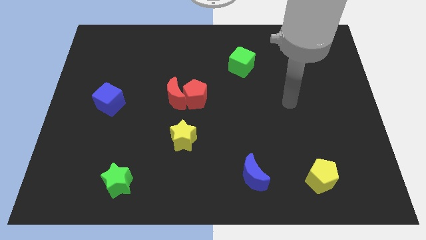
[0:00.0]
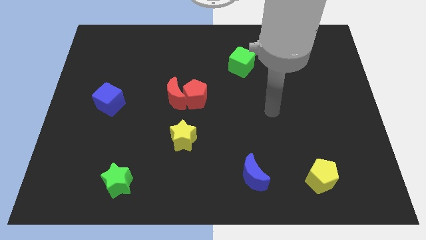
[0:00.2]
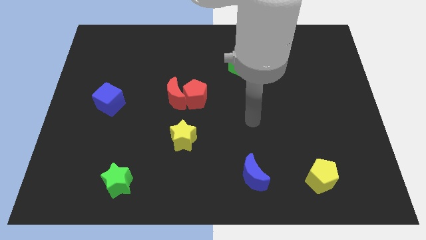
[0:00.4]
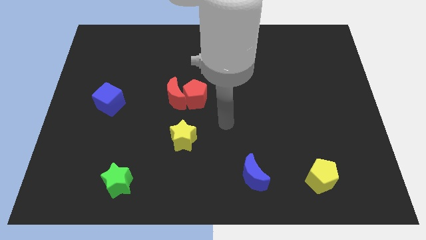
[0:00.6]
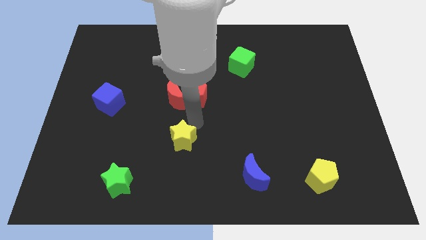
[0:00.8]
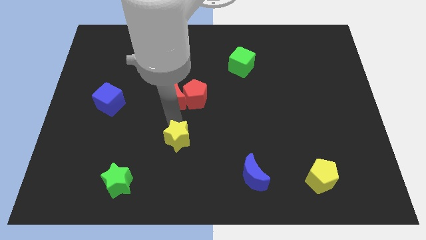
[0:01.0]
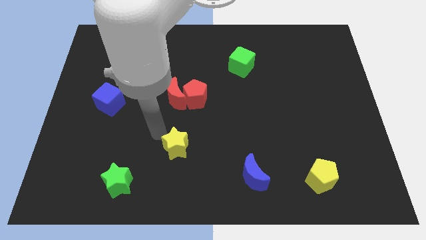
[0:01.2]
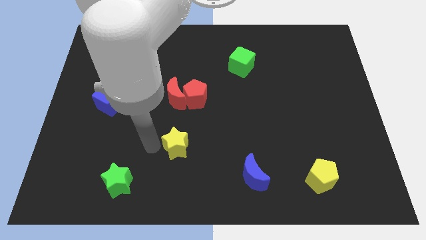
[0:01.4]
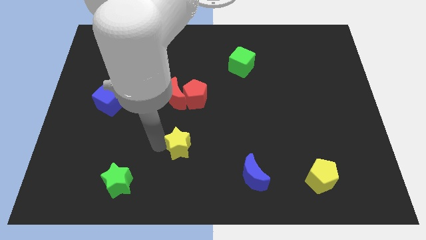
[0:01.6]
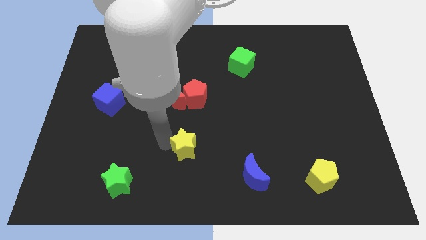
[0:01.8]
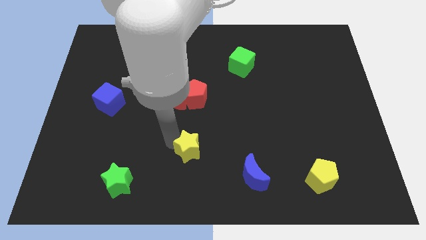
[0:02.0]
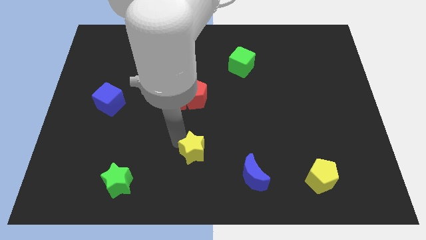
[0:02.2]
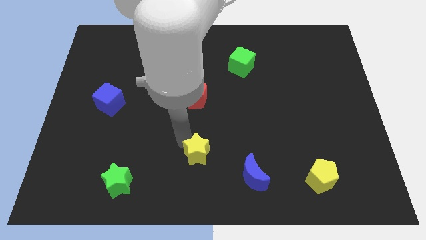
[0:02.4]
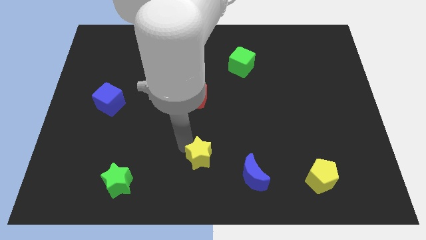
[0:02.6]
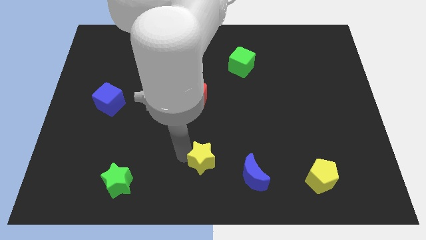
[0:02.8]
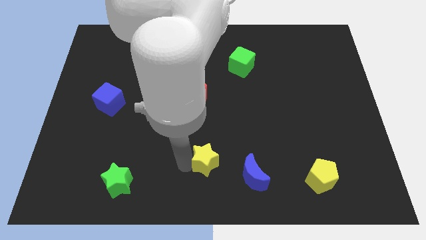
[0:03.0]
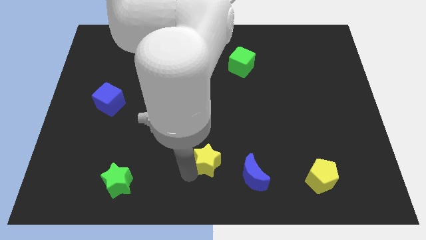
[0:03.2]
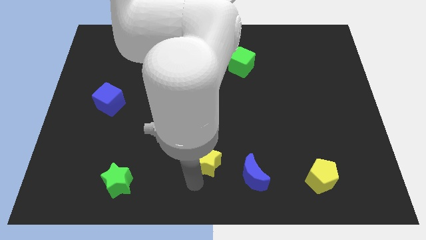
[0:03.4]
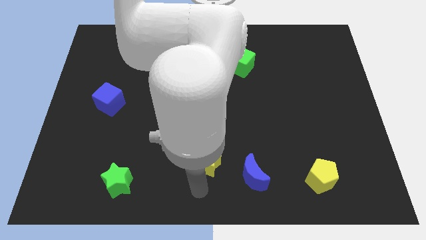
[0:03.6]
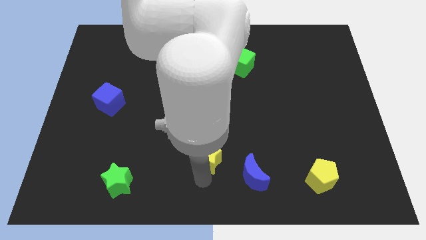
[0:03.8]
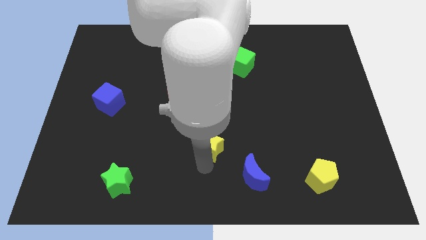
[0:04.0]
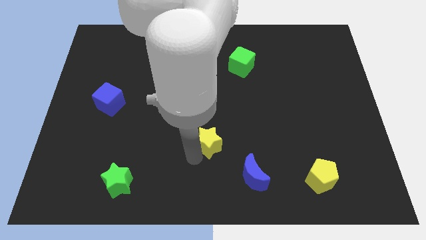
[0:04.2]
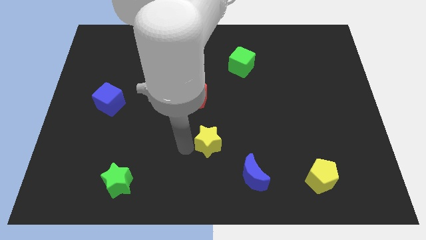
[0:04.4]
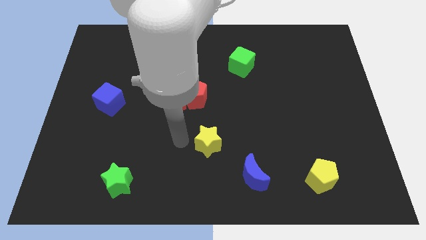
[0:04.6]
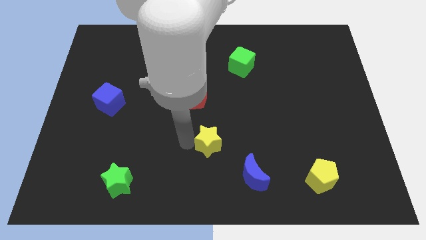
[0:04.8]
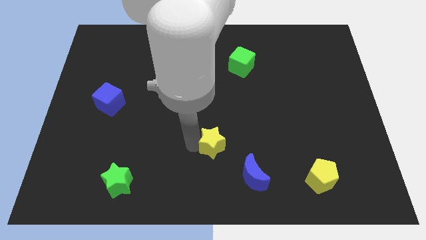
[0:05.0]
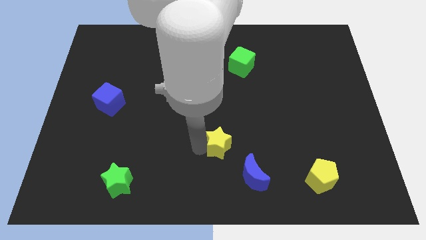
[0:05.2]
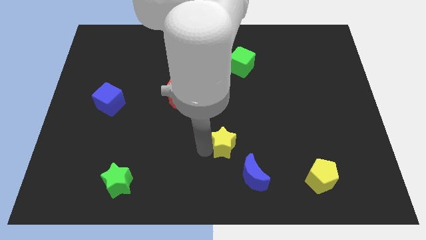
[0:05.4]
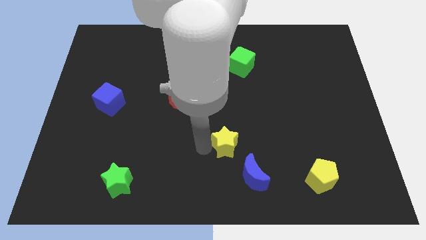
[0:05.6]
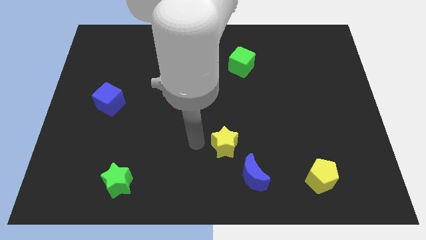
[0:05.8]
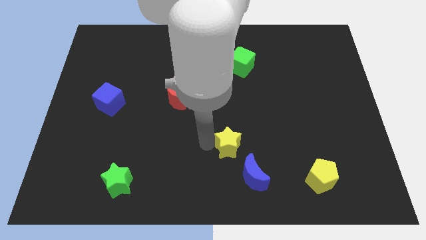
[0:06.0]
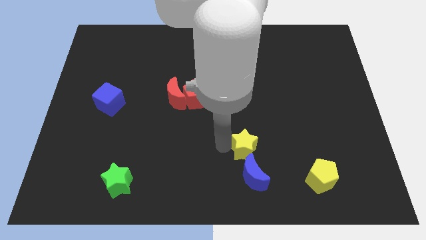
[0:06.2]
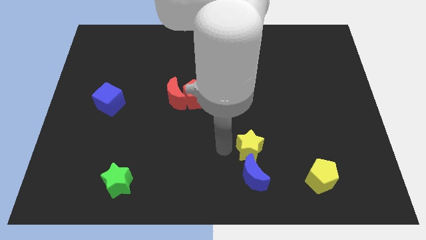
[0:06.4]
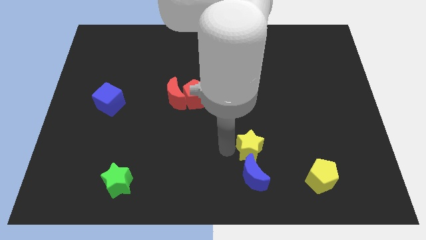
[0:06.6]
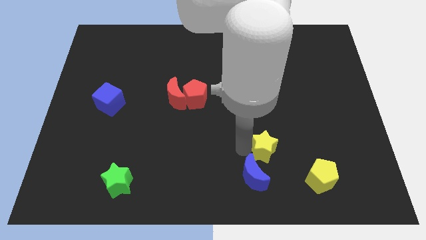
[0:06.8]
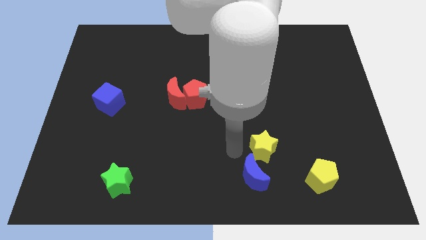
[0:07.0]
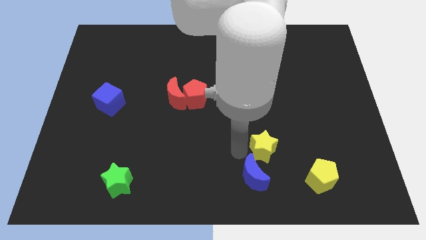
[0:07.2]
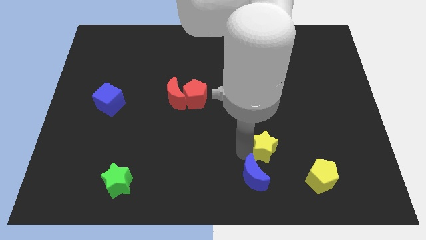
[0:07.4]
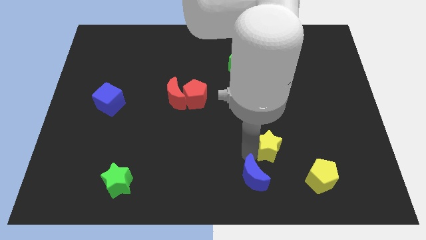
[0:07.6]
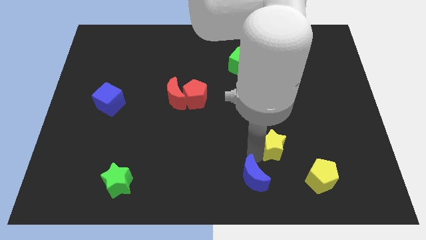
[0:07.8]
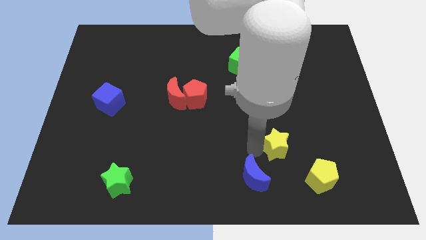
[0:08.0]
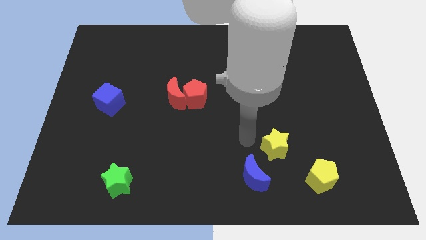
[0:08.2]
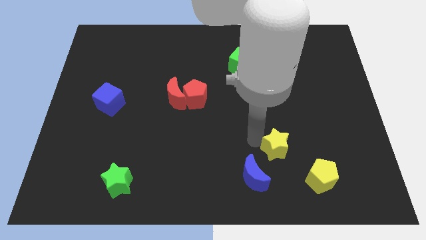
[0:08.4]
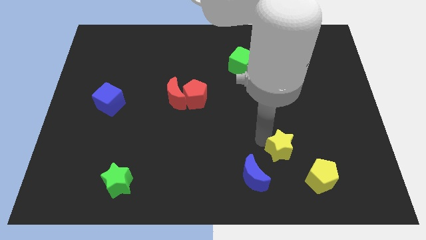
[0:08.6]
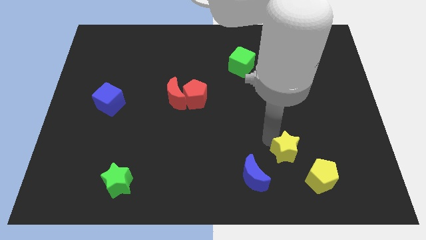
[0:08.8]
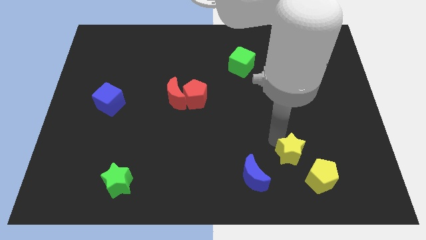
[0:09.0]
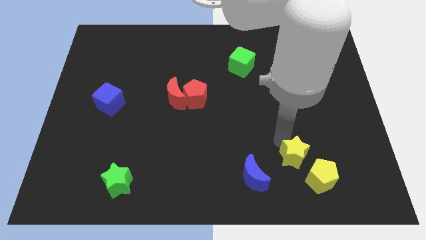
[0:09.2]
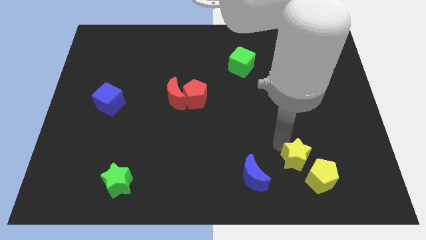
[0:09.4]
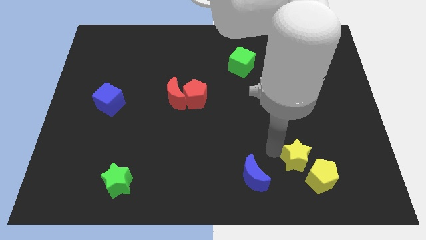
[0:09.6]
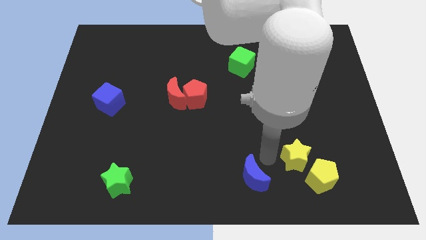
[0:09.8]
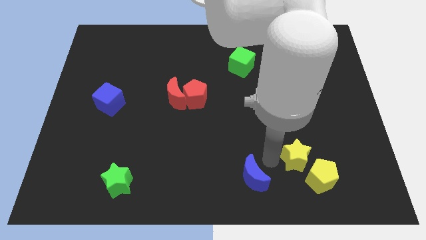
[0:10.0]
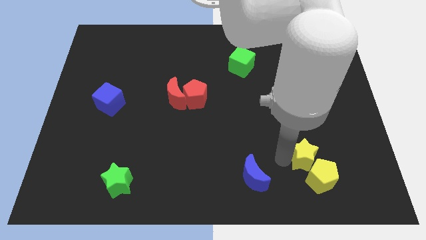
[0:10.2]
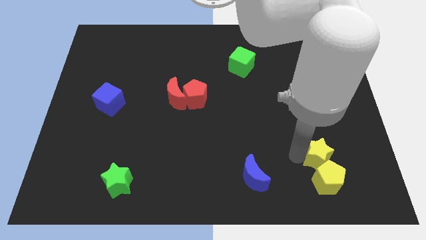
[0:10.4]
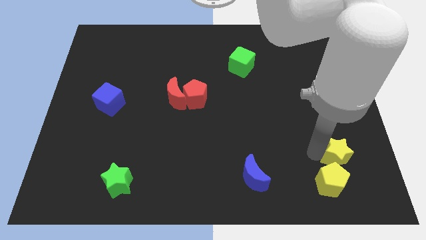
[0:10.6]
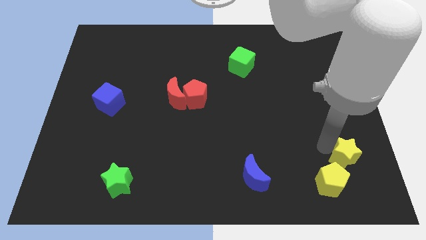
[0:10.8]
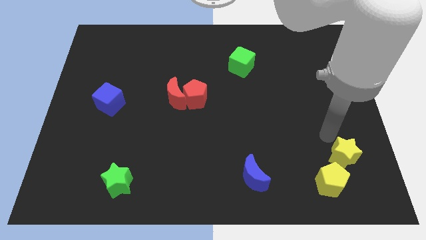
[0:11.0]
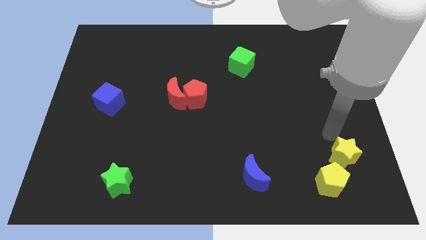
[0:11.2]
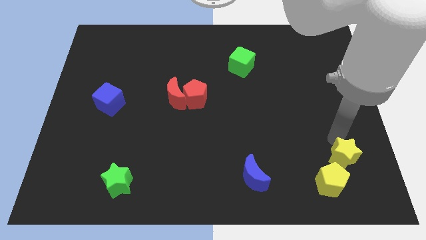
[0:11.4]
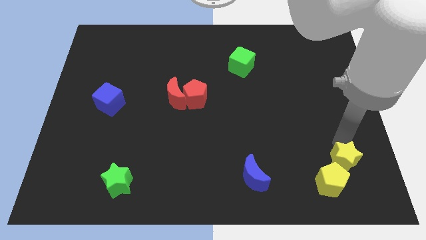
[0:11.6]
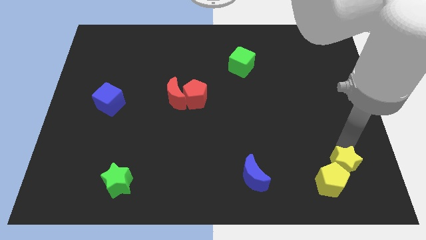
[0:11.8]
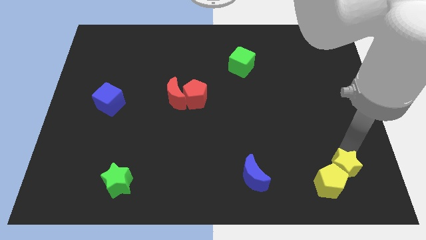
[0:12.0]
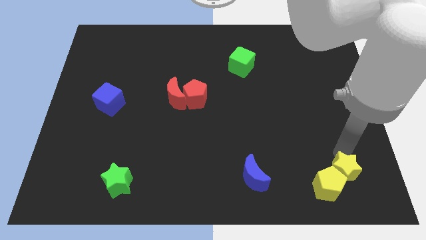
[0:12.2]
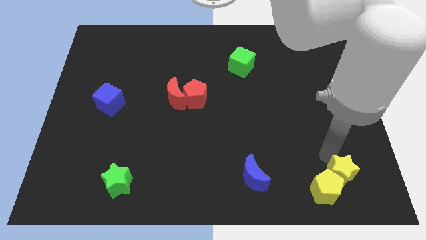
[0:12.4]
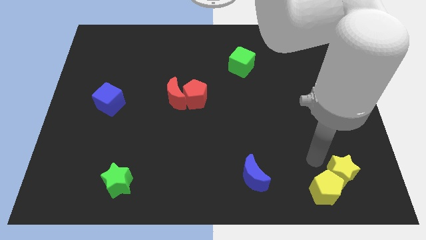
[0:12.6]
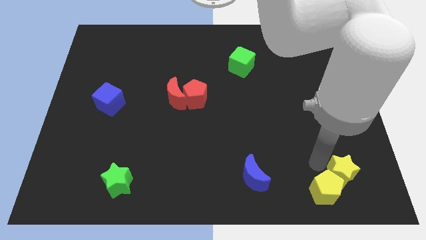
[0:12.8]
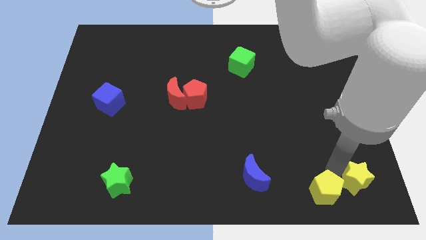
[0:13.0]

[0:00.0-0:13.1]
move the yellow star to the bottom right of the board

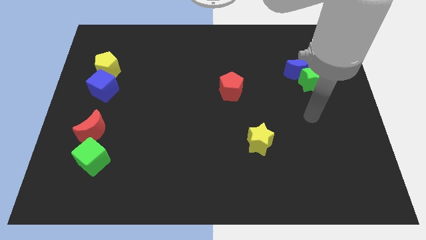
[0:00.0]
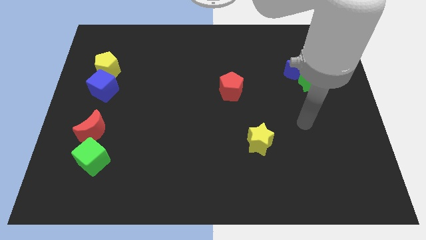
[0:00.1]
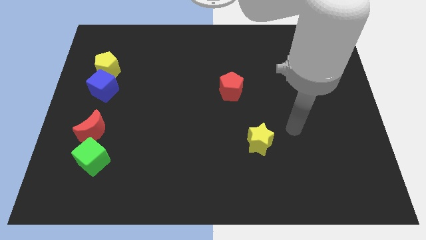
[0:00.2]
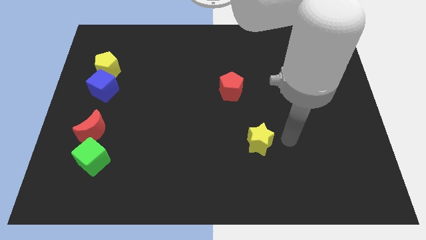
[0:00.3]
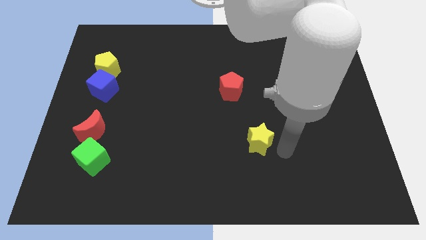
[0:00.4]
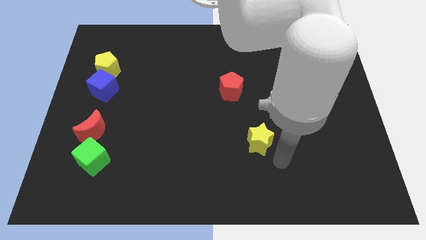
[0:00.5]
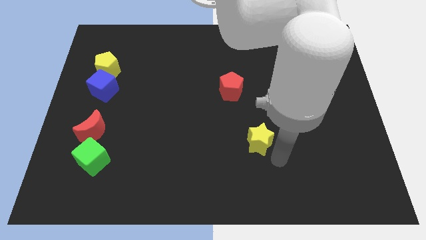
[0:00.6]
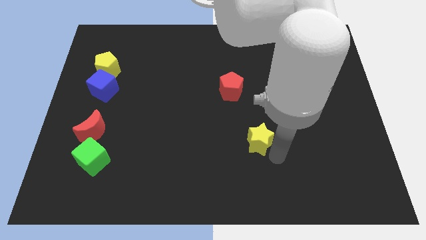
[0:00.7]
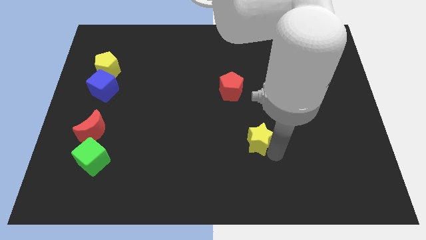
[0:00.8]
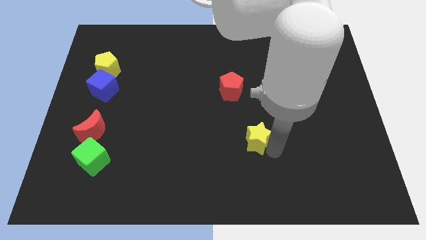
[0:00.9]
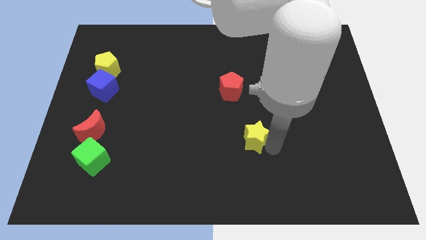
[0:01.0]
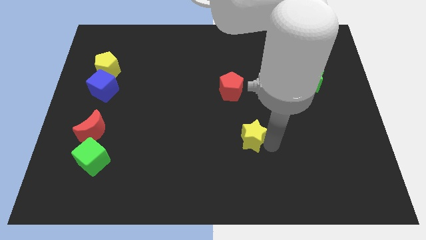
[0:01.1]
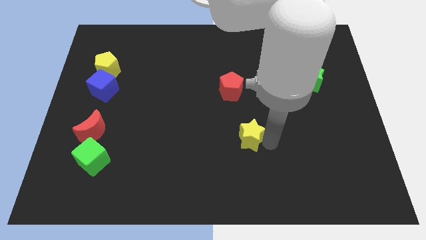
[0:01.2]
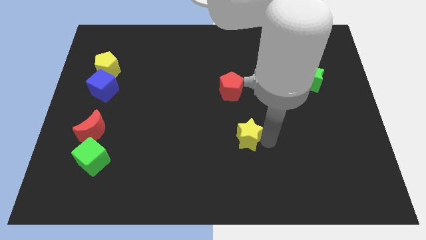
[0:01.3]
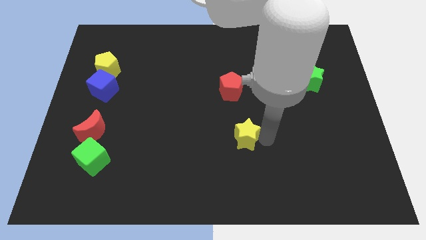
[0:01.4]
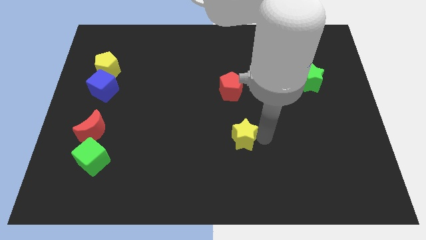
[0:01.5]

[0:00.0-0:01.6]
put the yellow star to the center
